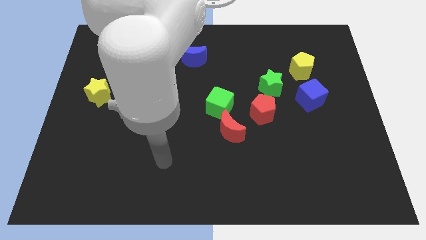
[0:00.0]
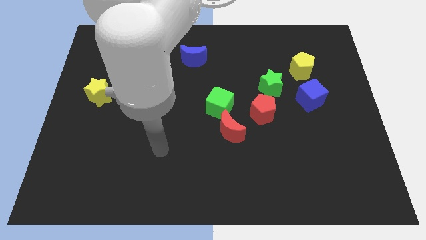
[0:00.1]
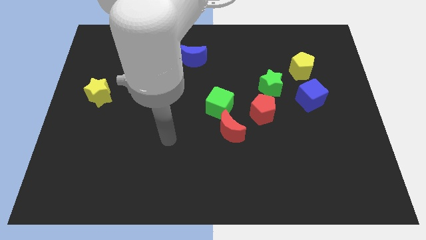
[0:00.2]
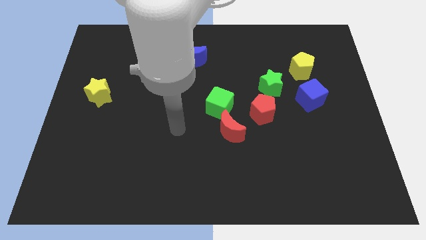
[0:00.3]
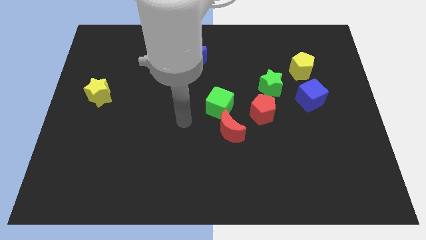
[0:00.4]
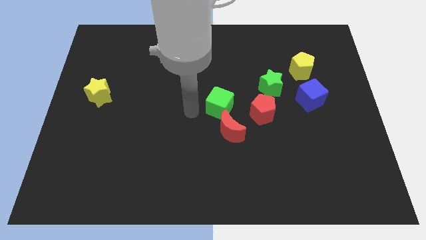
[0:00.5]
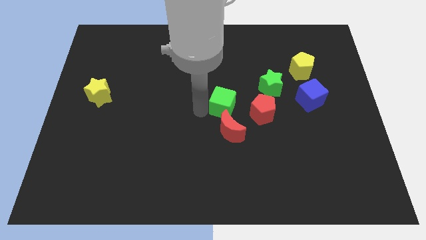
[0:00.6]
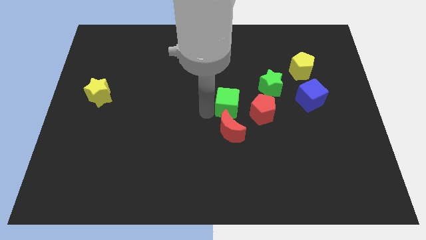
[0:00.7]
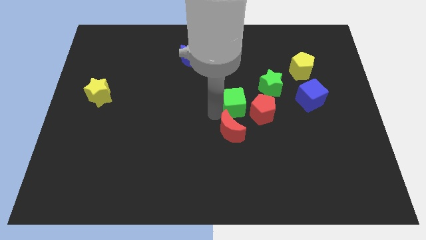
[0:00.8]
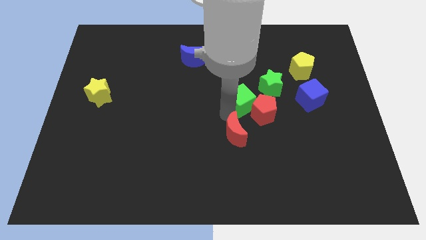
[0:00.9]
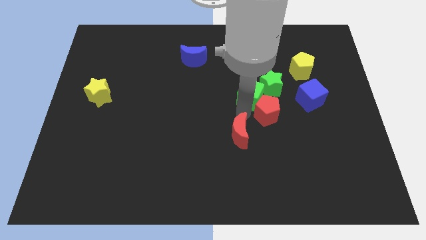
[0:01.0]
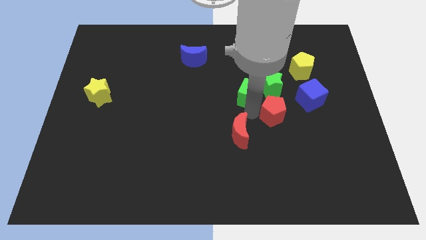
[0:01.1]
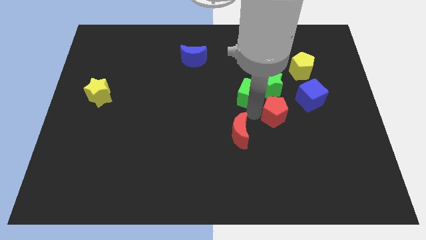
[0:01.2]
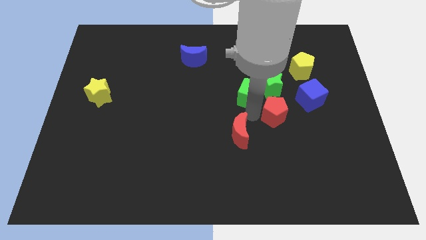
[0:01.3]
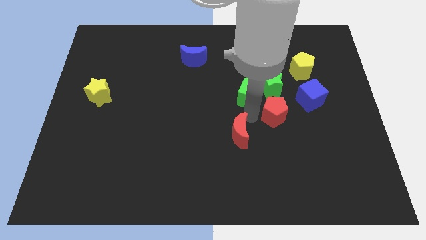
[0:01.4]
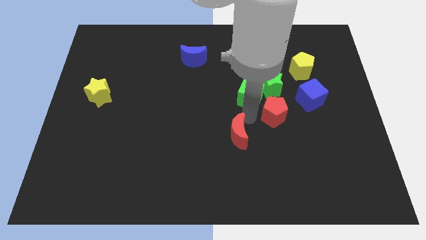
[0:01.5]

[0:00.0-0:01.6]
separate the red moon from the green cube and red pentagon

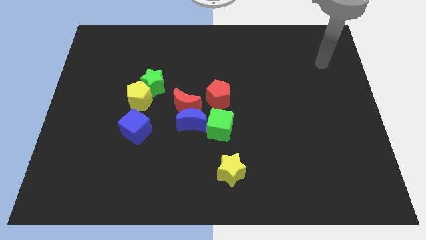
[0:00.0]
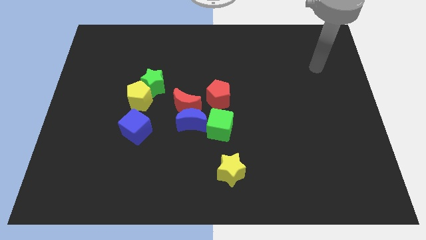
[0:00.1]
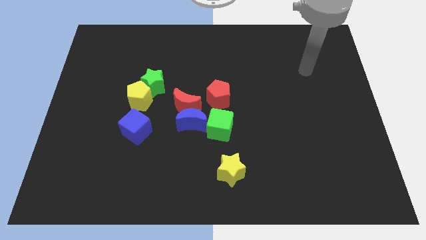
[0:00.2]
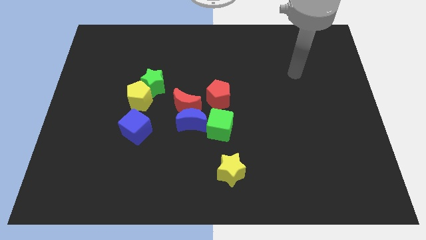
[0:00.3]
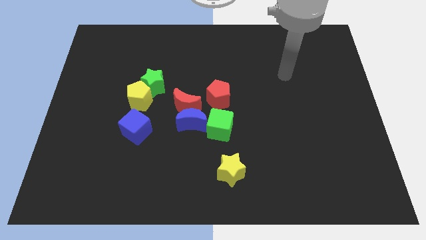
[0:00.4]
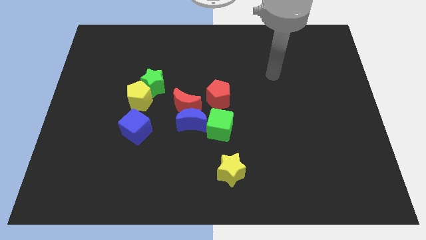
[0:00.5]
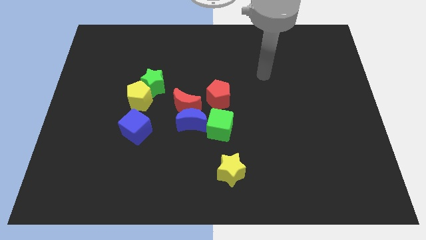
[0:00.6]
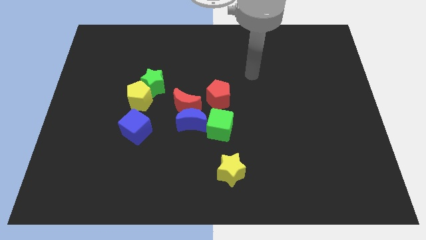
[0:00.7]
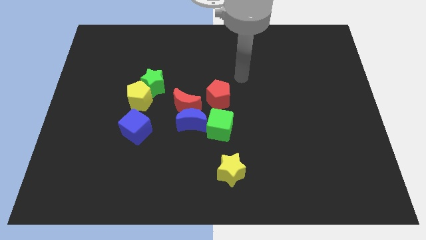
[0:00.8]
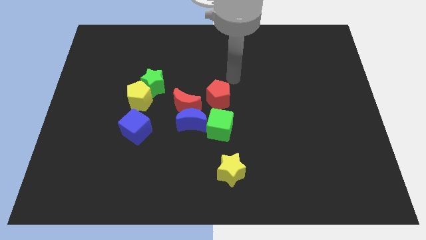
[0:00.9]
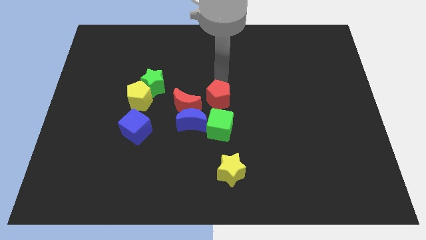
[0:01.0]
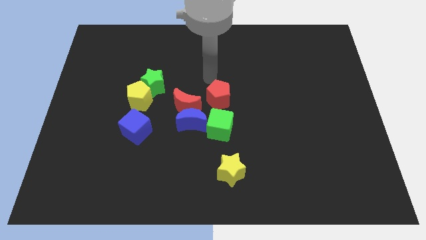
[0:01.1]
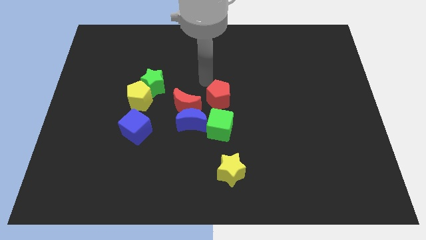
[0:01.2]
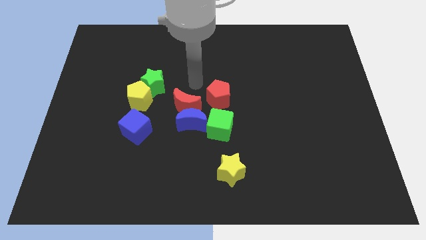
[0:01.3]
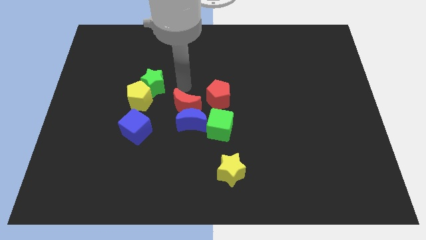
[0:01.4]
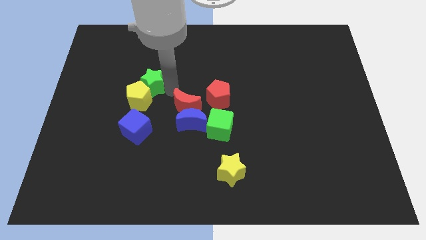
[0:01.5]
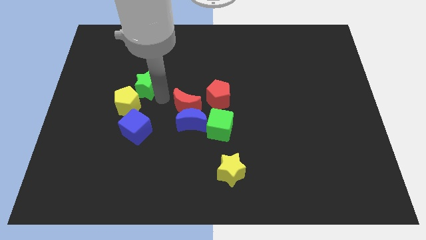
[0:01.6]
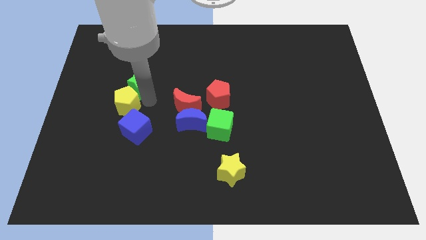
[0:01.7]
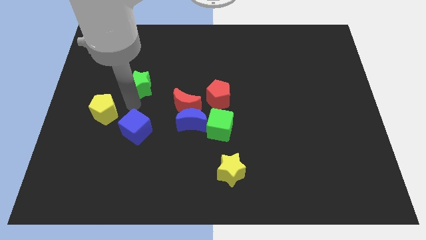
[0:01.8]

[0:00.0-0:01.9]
separate the green star from the yellow pentagon

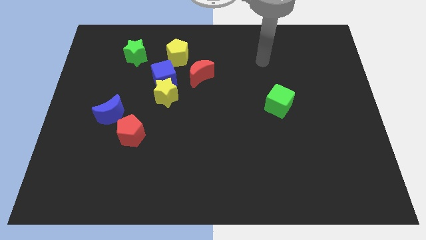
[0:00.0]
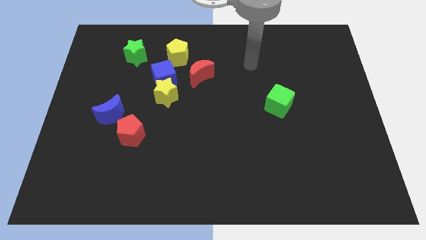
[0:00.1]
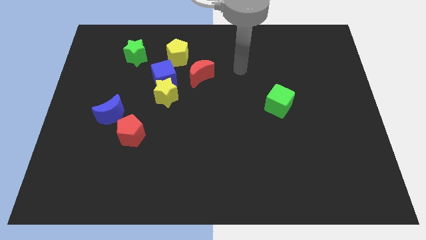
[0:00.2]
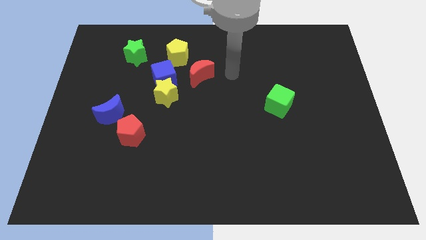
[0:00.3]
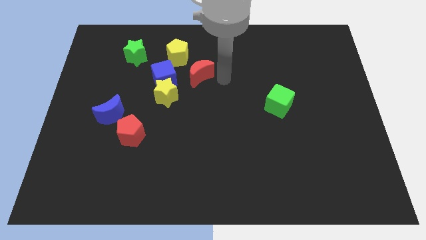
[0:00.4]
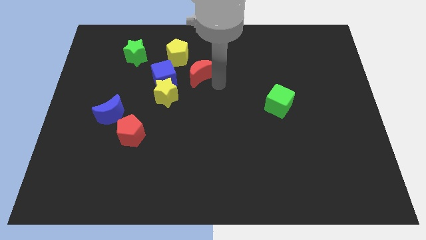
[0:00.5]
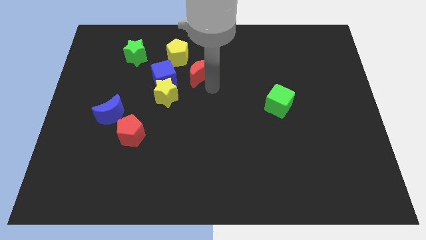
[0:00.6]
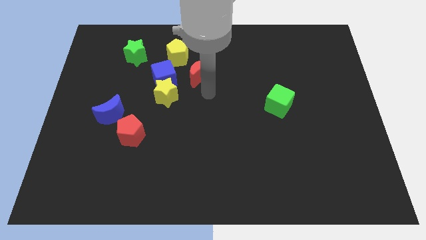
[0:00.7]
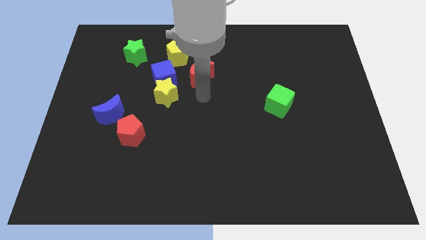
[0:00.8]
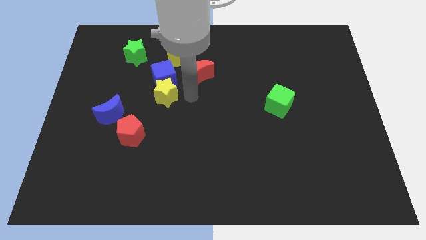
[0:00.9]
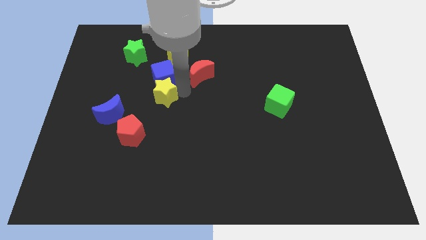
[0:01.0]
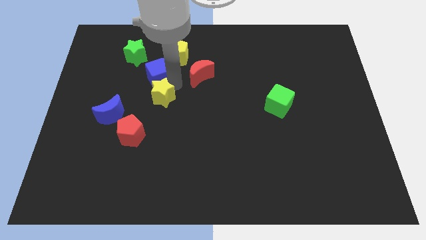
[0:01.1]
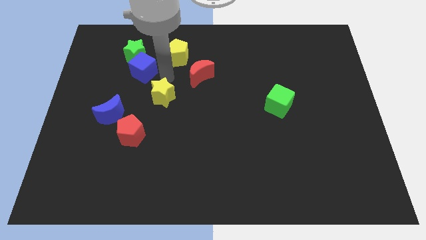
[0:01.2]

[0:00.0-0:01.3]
pull the yellow star apart from the blue cube

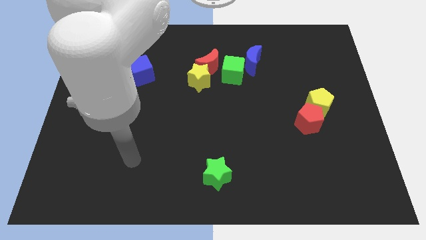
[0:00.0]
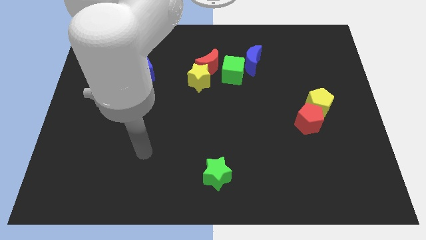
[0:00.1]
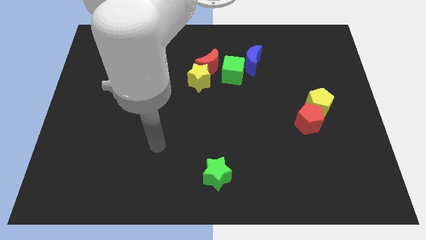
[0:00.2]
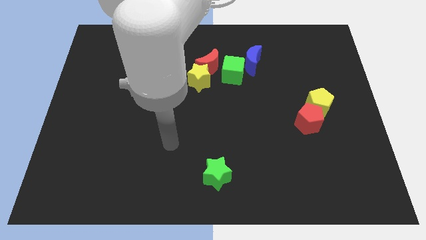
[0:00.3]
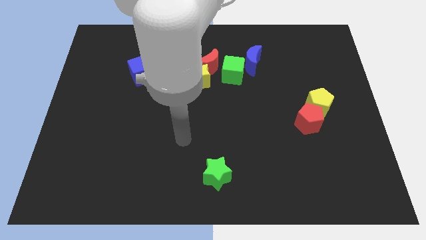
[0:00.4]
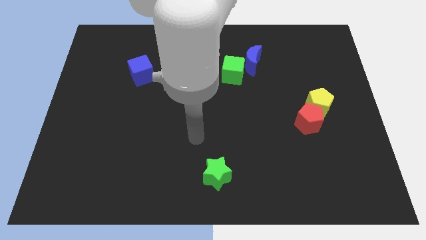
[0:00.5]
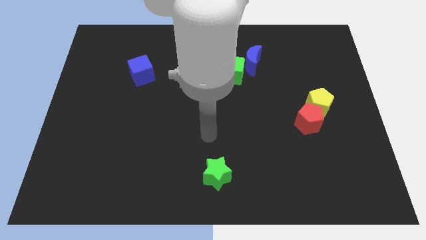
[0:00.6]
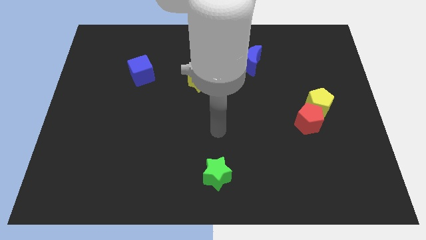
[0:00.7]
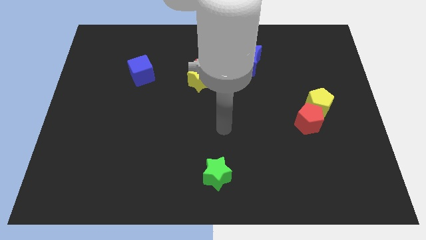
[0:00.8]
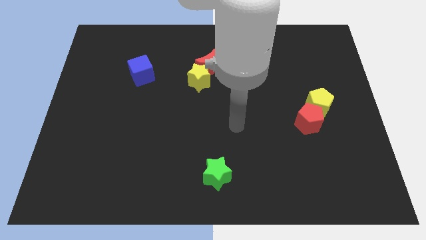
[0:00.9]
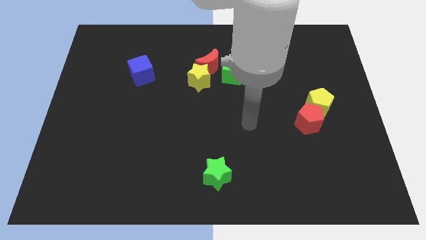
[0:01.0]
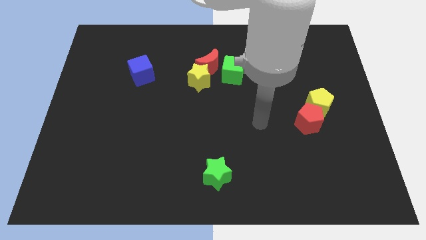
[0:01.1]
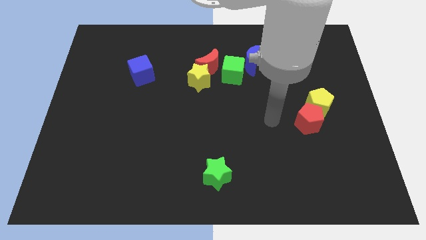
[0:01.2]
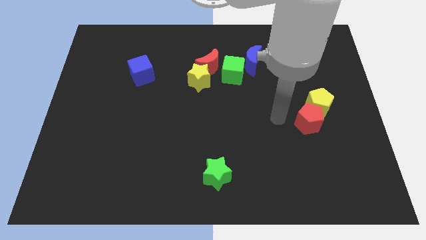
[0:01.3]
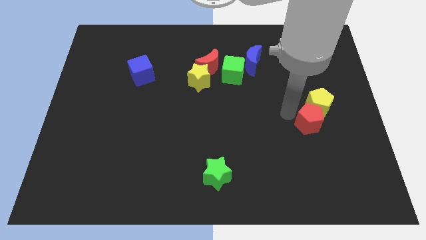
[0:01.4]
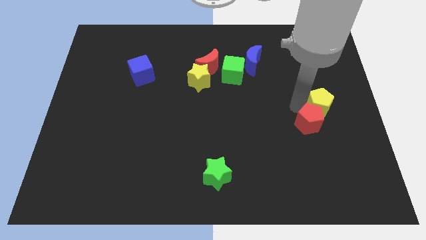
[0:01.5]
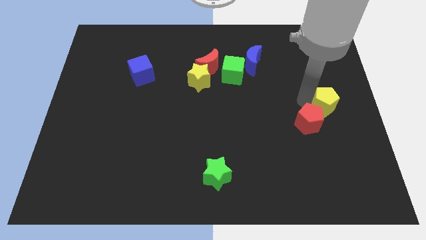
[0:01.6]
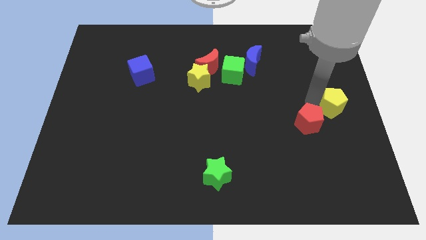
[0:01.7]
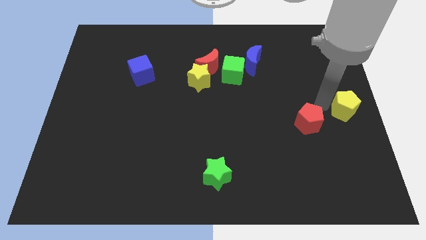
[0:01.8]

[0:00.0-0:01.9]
move the red pentagon away from the yellow pentagon

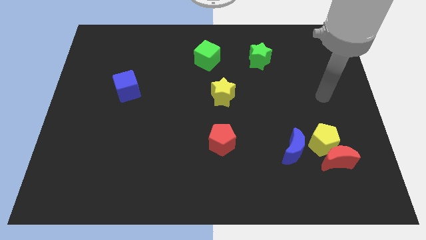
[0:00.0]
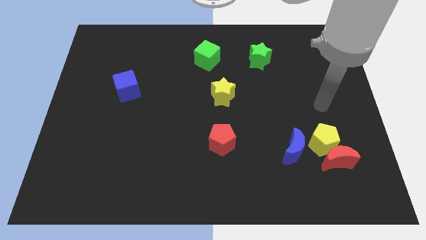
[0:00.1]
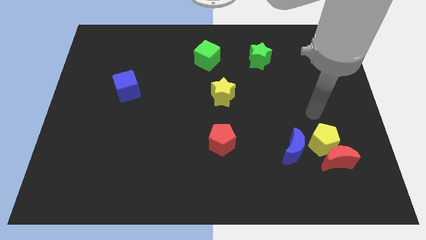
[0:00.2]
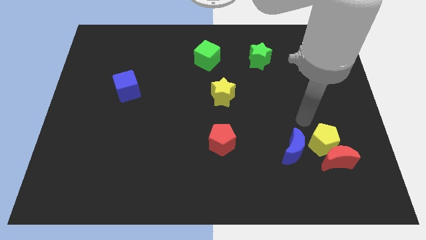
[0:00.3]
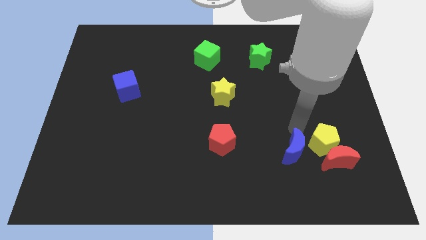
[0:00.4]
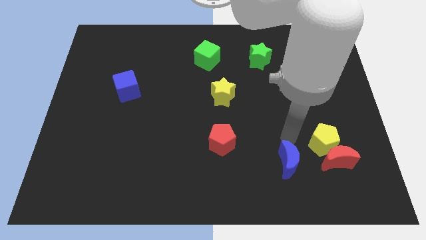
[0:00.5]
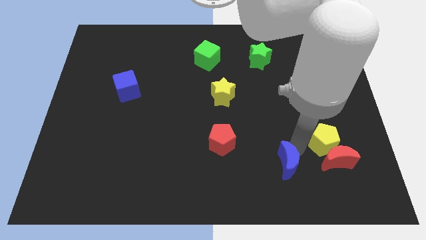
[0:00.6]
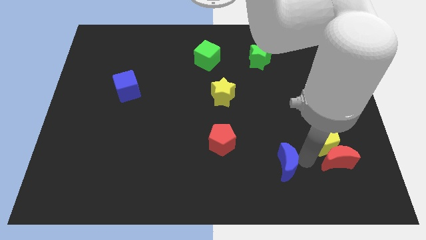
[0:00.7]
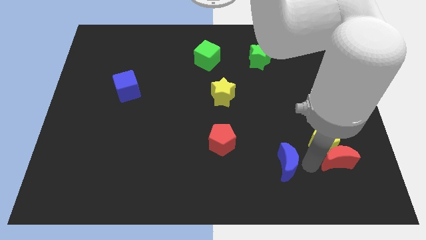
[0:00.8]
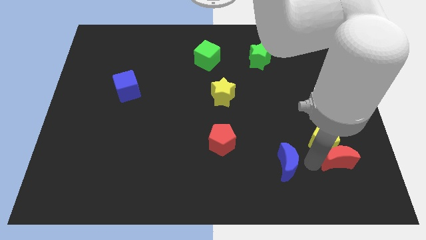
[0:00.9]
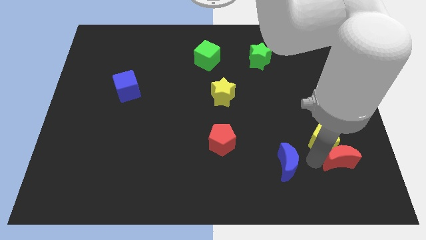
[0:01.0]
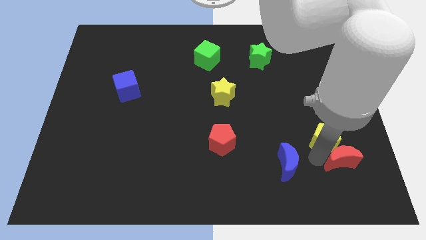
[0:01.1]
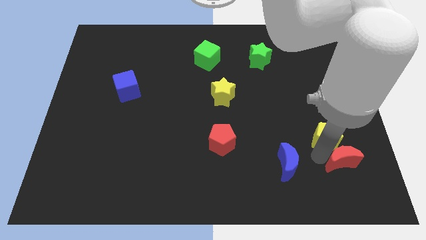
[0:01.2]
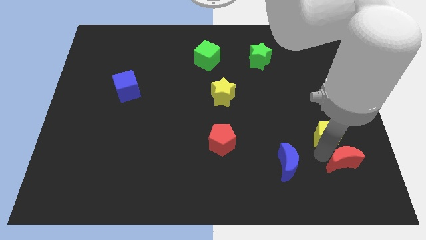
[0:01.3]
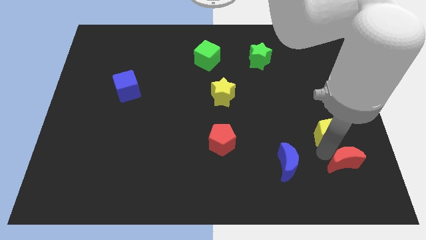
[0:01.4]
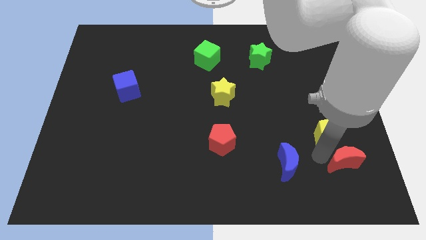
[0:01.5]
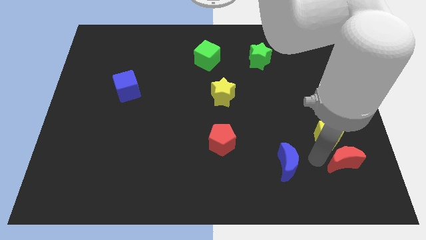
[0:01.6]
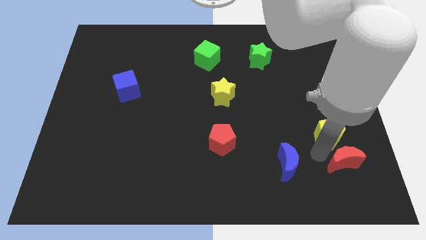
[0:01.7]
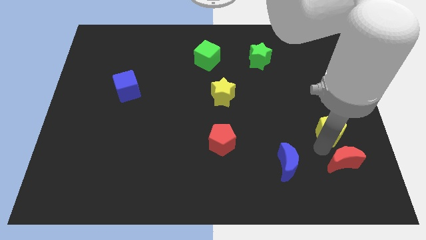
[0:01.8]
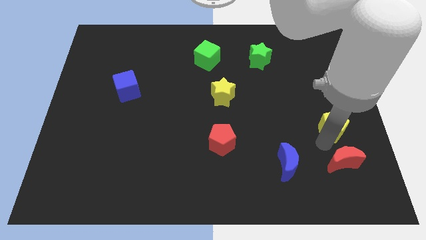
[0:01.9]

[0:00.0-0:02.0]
move the yellow pentagon away from the red moon and blue moon

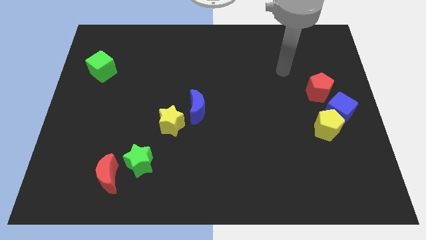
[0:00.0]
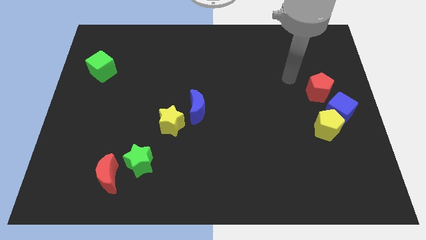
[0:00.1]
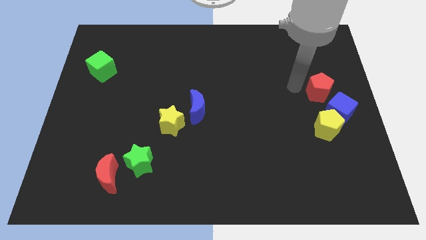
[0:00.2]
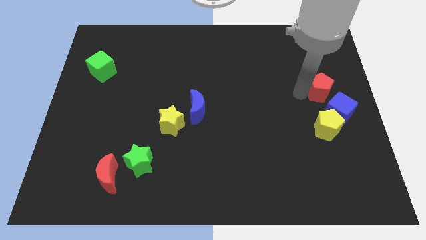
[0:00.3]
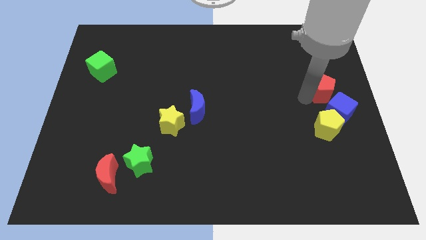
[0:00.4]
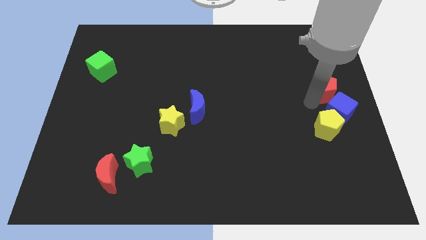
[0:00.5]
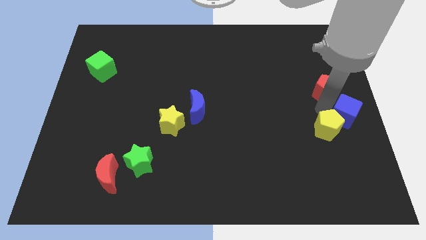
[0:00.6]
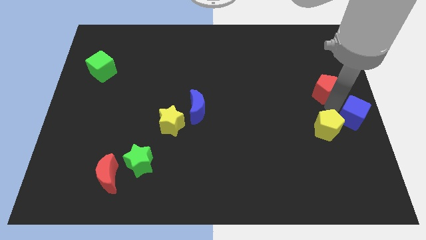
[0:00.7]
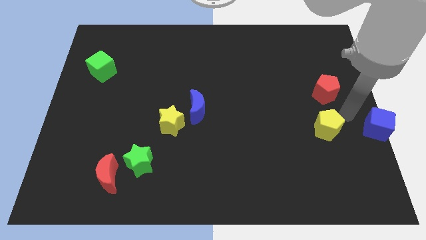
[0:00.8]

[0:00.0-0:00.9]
separate the yellow pentagon from the blue cube
